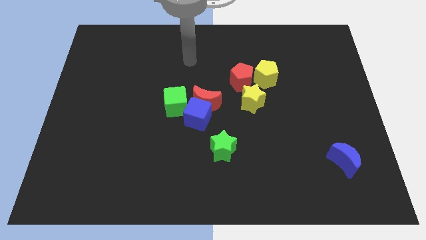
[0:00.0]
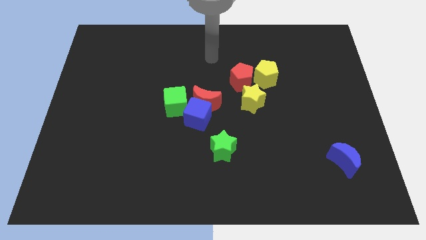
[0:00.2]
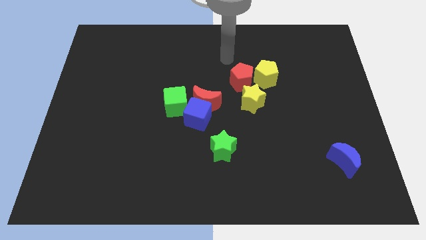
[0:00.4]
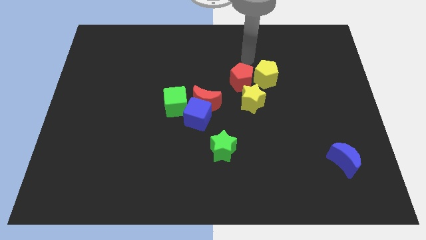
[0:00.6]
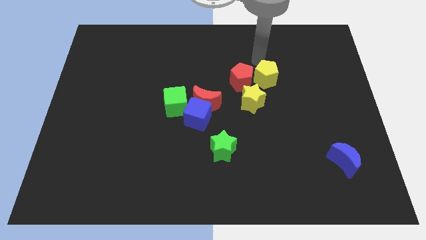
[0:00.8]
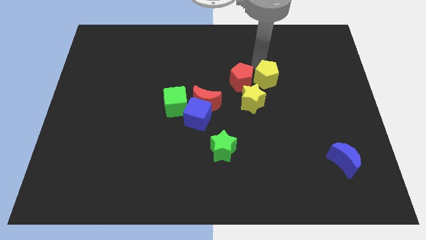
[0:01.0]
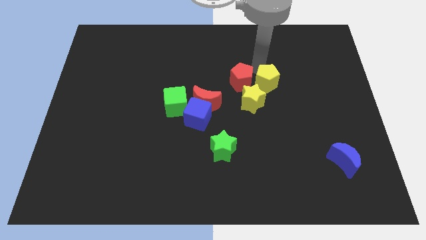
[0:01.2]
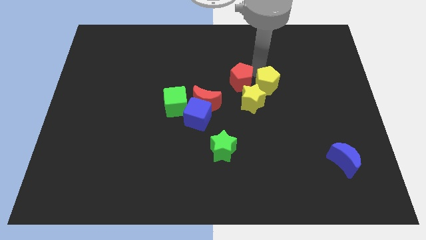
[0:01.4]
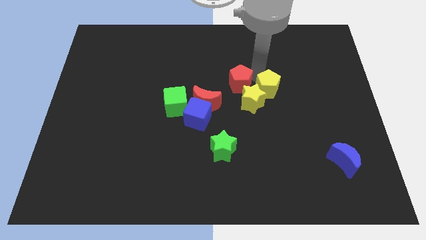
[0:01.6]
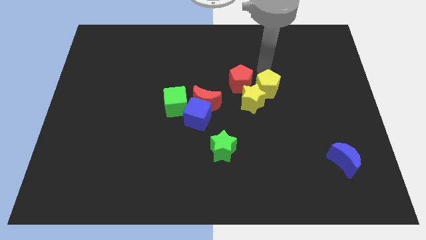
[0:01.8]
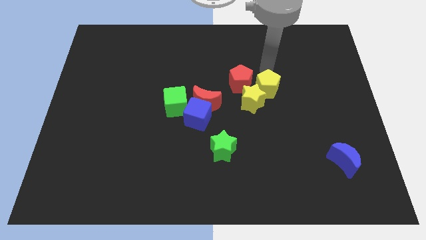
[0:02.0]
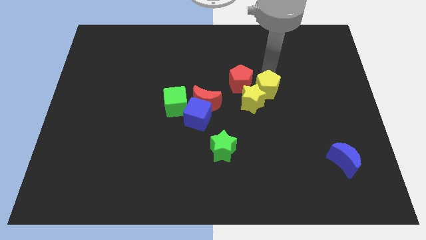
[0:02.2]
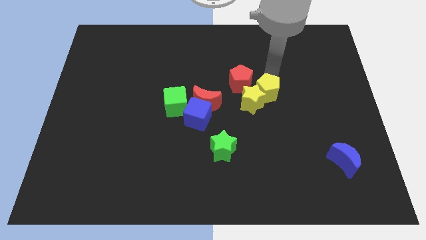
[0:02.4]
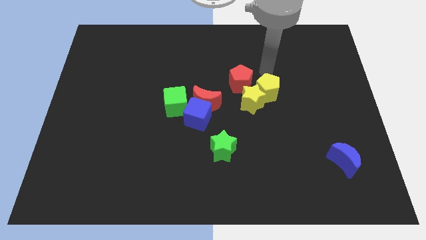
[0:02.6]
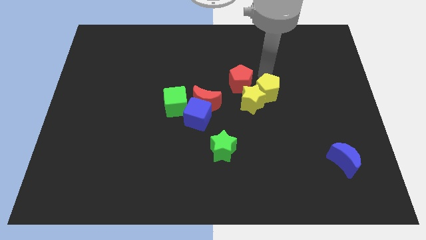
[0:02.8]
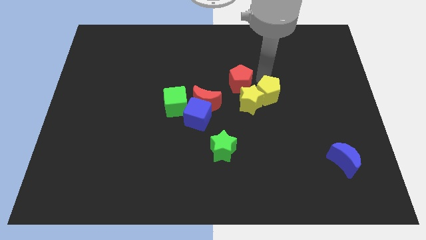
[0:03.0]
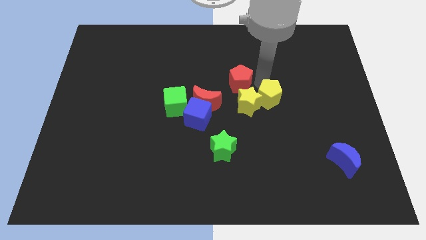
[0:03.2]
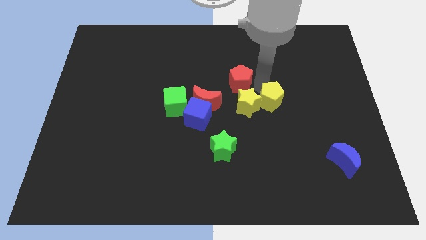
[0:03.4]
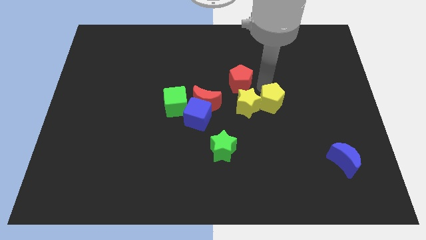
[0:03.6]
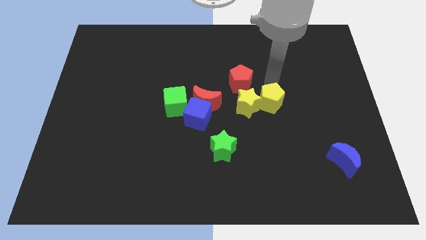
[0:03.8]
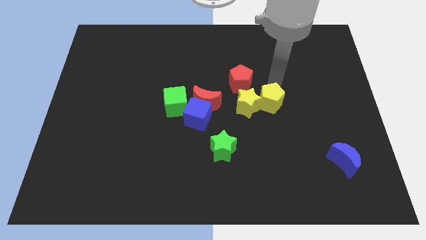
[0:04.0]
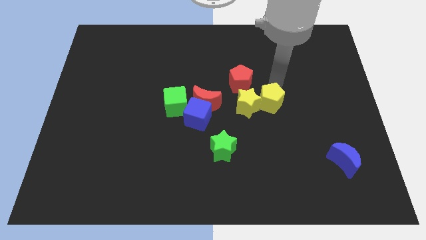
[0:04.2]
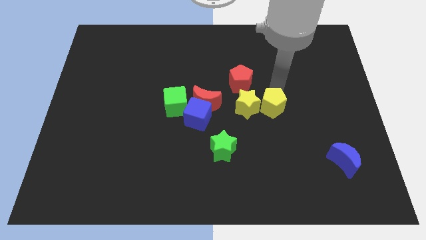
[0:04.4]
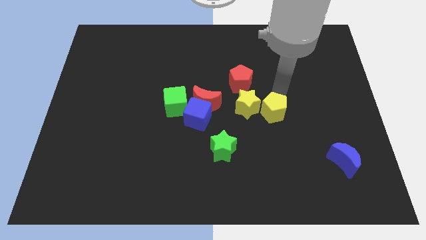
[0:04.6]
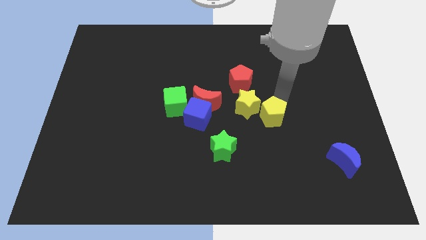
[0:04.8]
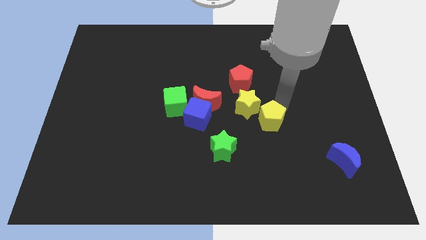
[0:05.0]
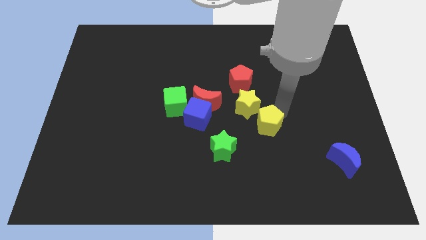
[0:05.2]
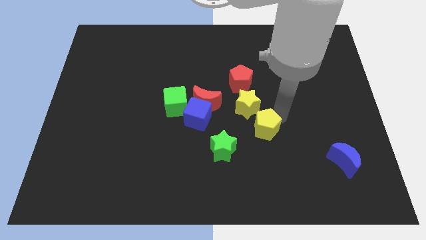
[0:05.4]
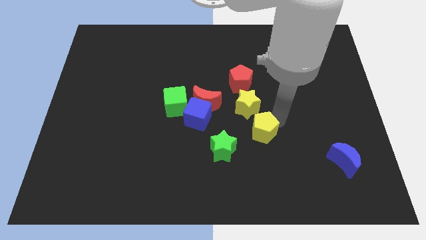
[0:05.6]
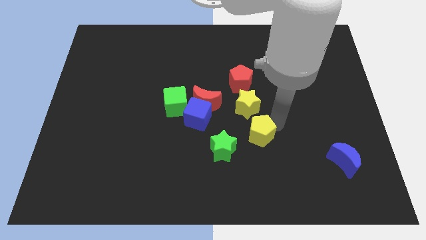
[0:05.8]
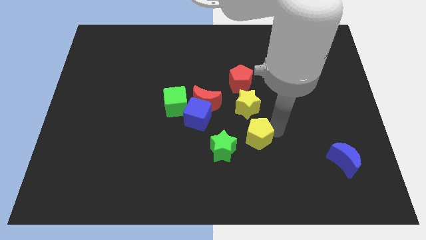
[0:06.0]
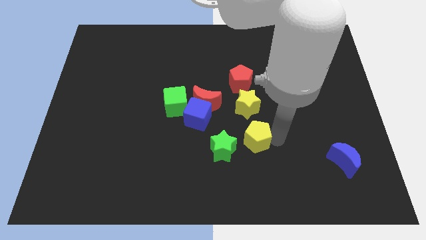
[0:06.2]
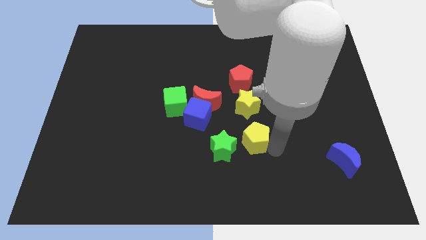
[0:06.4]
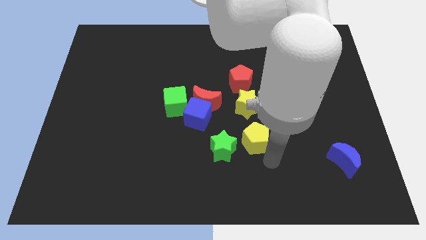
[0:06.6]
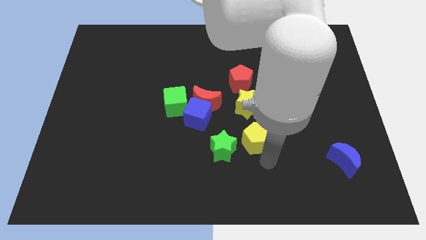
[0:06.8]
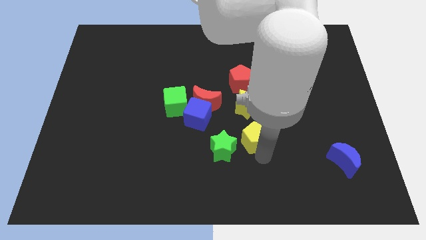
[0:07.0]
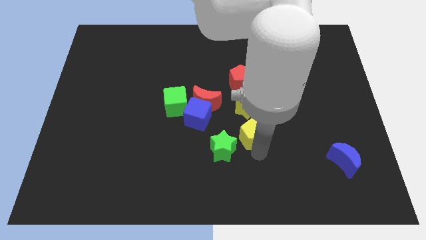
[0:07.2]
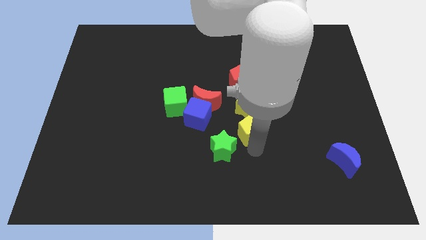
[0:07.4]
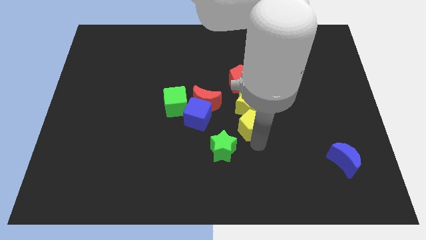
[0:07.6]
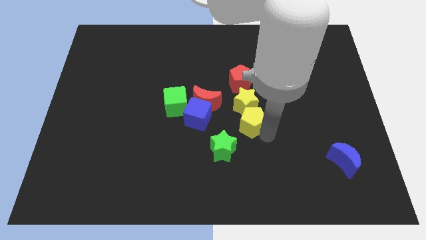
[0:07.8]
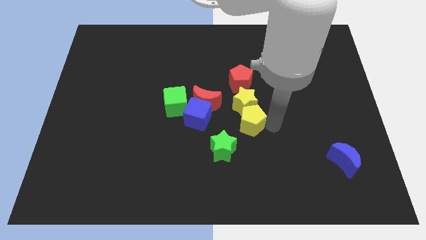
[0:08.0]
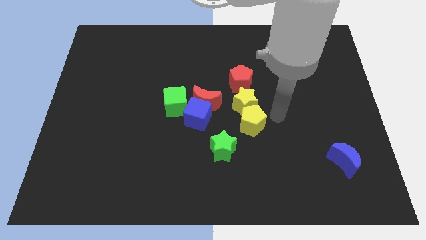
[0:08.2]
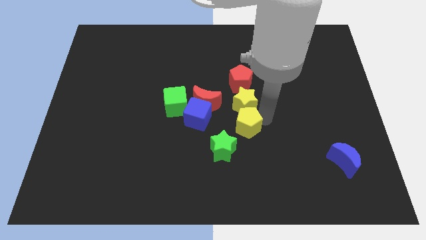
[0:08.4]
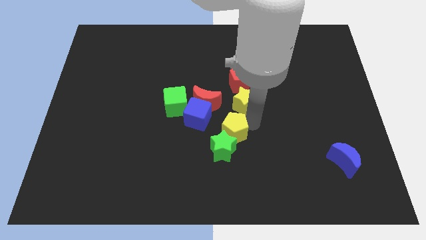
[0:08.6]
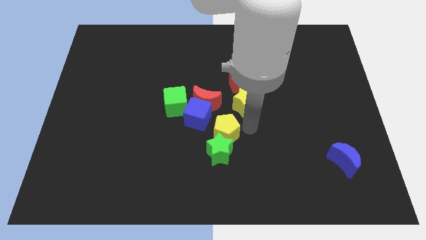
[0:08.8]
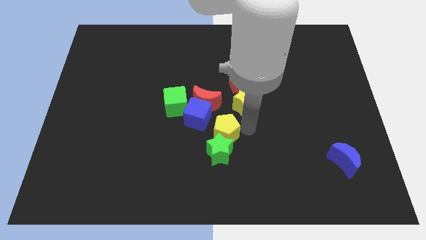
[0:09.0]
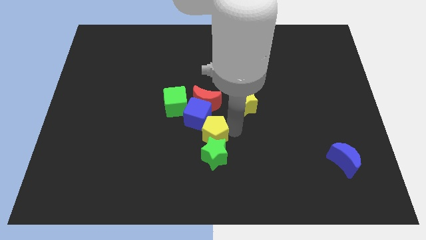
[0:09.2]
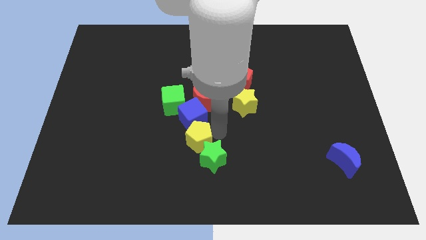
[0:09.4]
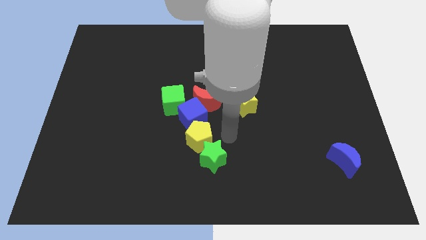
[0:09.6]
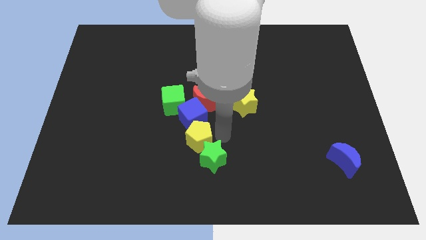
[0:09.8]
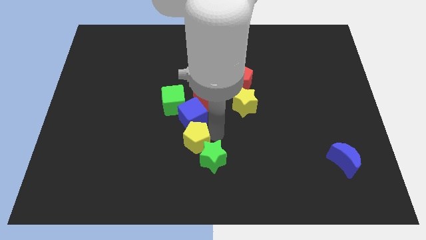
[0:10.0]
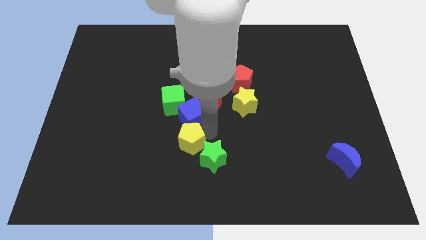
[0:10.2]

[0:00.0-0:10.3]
move the yellow pentagon to the bottom side of the green cube

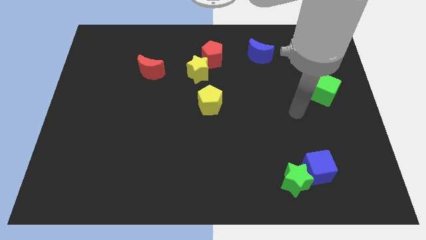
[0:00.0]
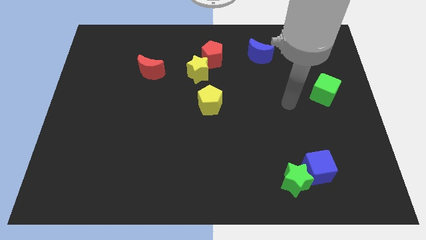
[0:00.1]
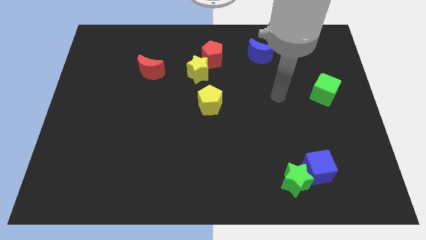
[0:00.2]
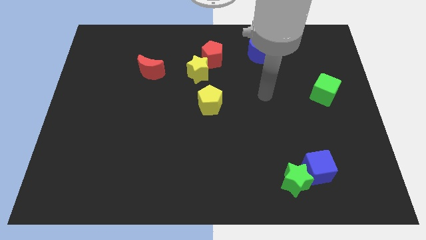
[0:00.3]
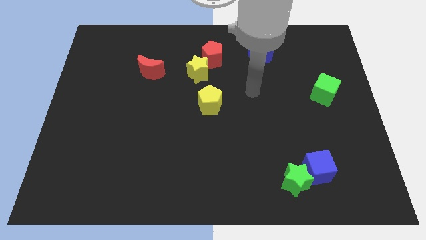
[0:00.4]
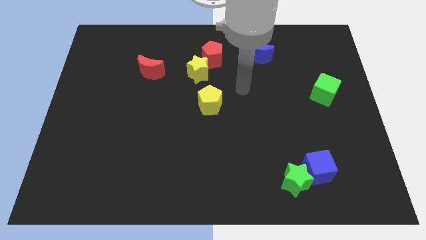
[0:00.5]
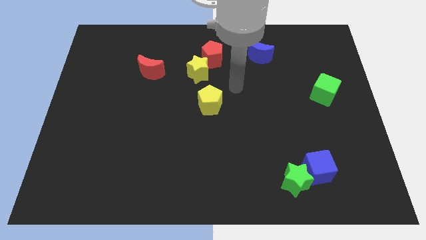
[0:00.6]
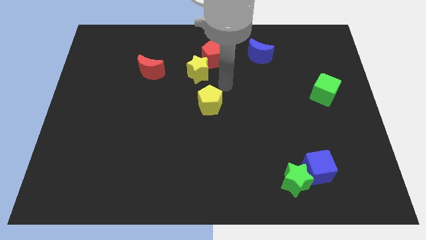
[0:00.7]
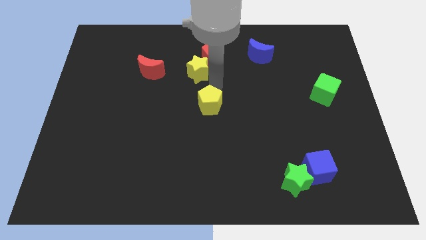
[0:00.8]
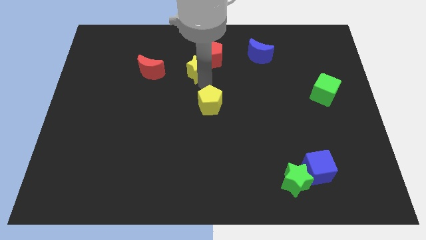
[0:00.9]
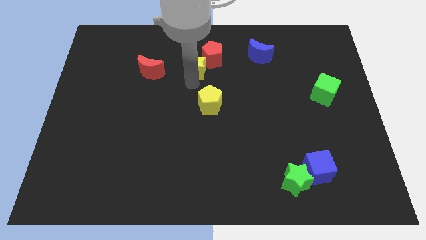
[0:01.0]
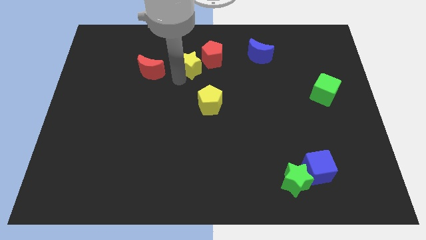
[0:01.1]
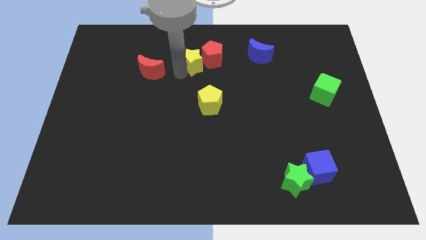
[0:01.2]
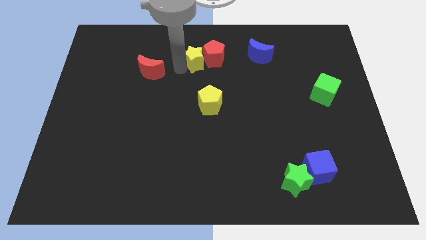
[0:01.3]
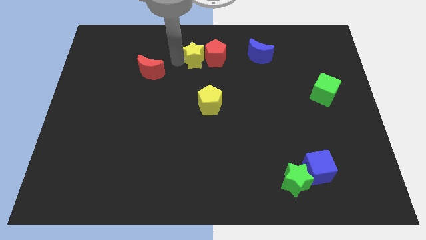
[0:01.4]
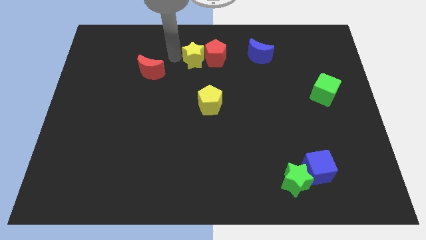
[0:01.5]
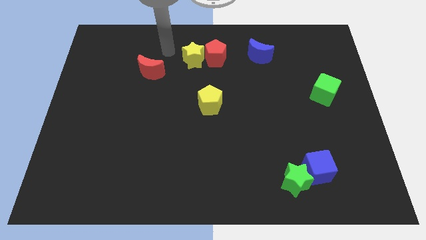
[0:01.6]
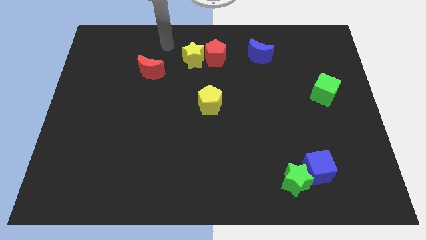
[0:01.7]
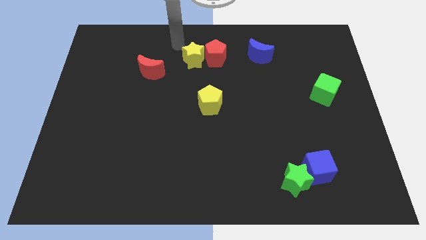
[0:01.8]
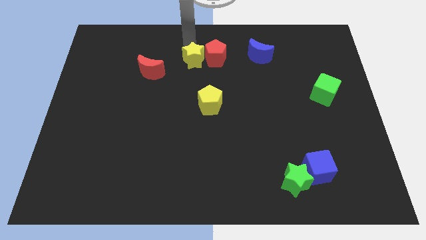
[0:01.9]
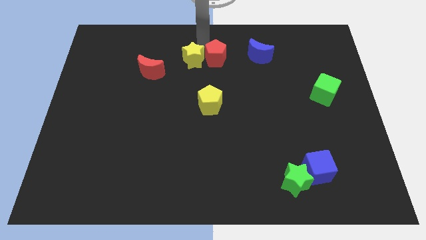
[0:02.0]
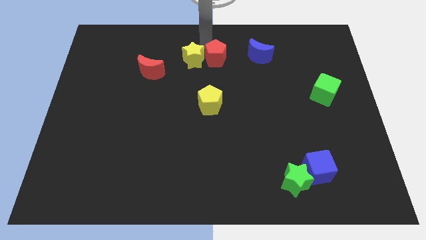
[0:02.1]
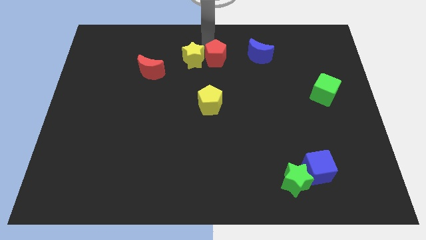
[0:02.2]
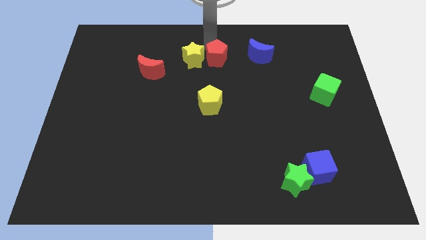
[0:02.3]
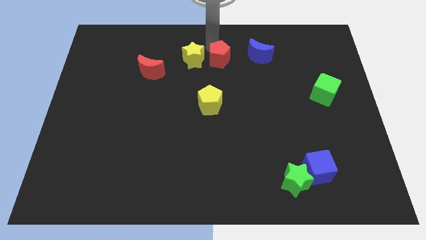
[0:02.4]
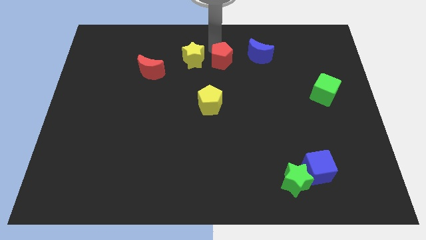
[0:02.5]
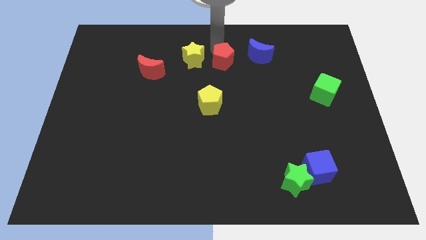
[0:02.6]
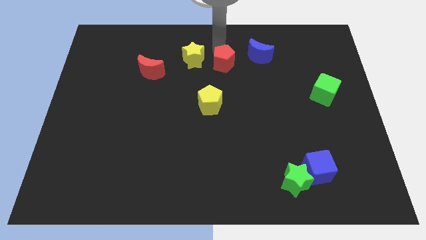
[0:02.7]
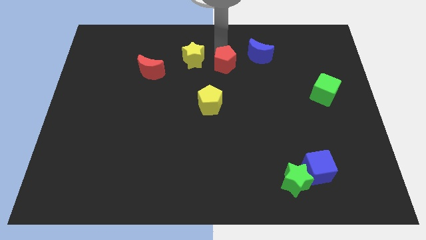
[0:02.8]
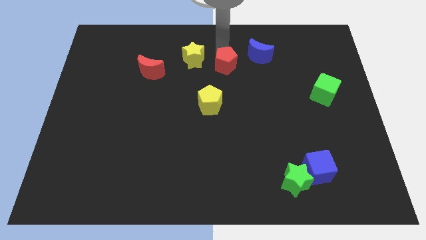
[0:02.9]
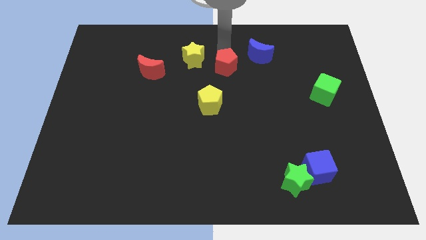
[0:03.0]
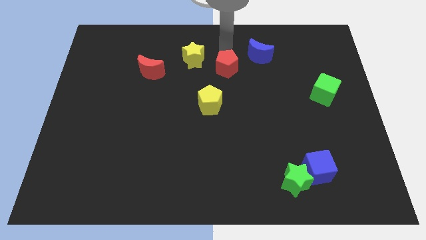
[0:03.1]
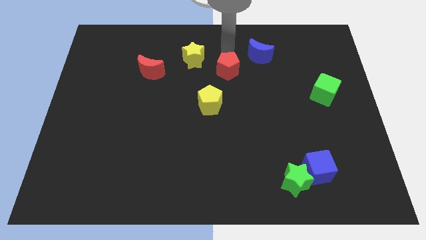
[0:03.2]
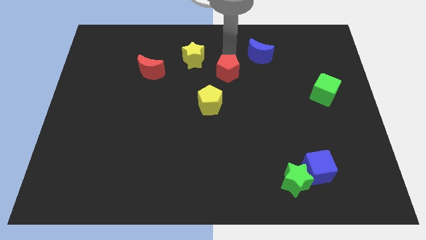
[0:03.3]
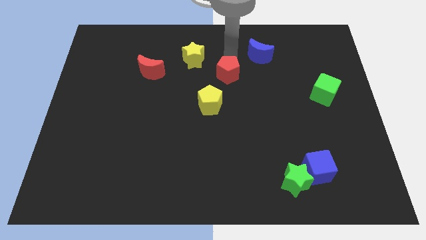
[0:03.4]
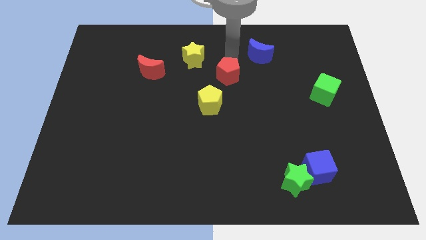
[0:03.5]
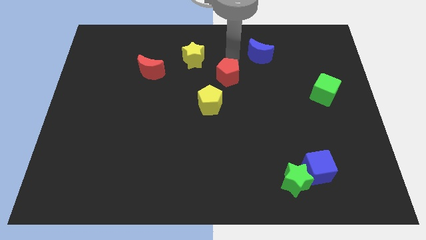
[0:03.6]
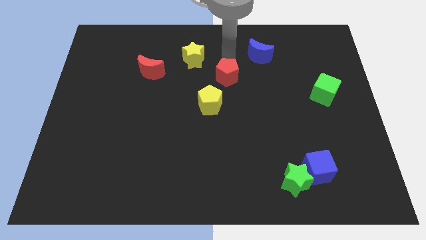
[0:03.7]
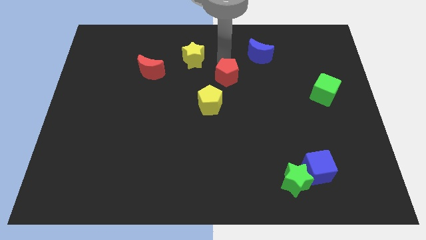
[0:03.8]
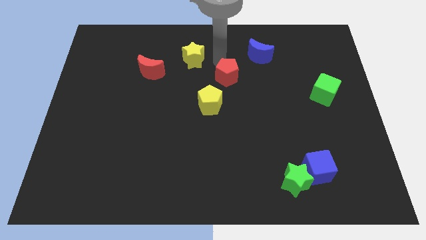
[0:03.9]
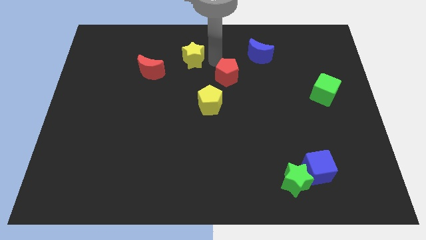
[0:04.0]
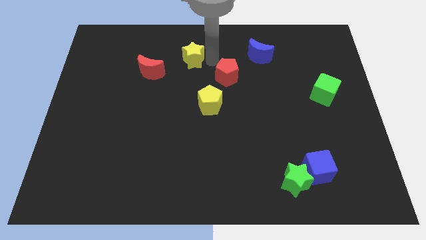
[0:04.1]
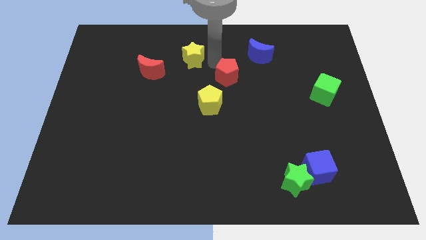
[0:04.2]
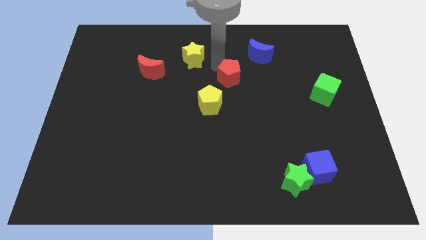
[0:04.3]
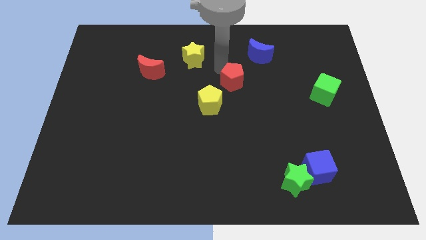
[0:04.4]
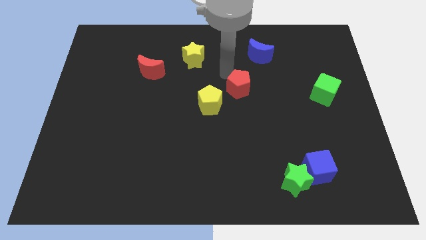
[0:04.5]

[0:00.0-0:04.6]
put the red pentagon right of the yellow pentagon
